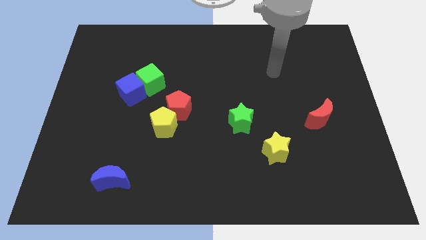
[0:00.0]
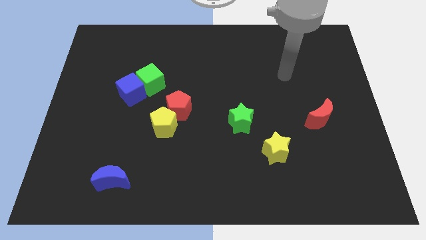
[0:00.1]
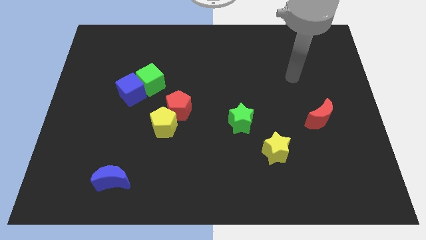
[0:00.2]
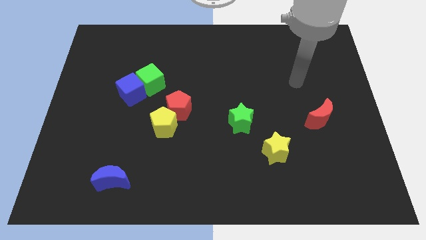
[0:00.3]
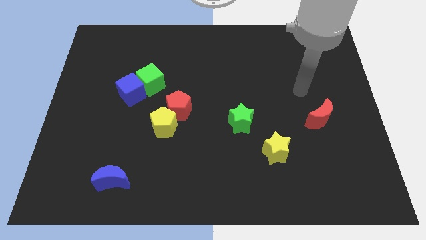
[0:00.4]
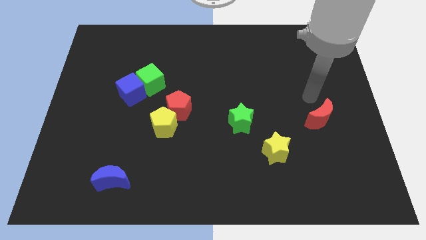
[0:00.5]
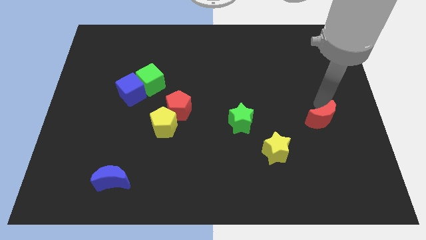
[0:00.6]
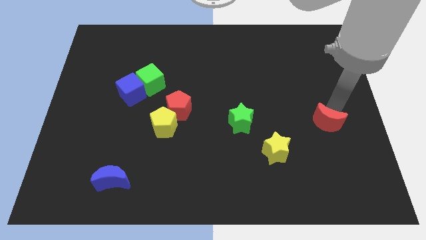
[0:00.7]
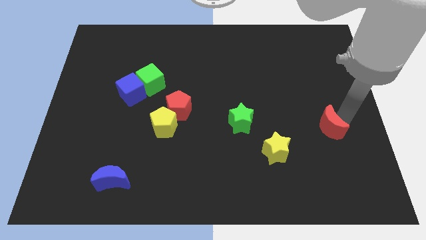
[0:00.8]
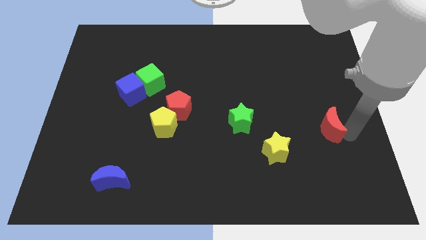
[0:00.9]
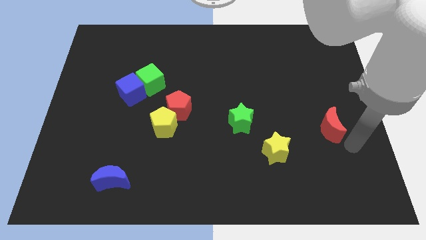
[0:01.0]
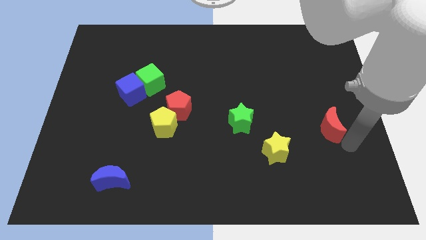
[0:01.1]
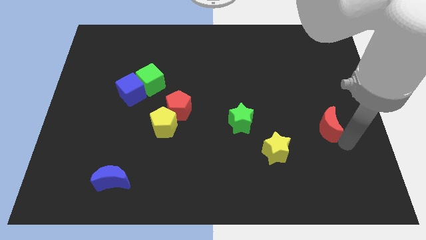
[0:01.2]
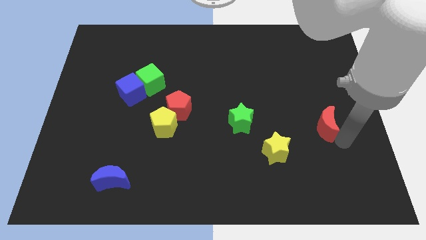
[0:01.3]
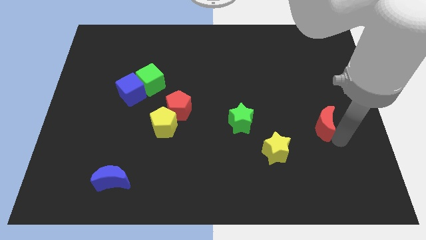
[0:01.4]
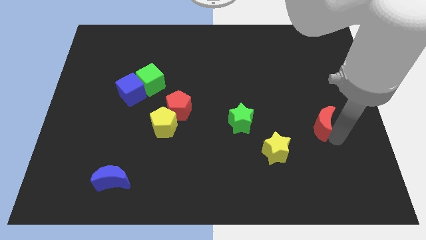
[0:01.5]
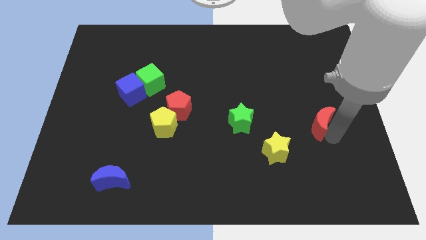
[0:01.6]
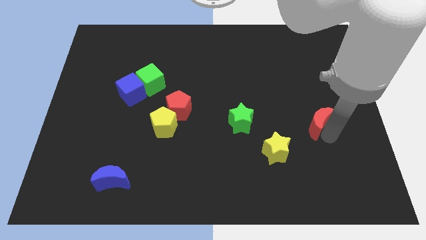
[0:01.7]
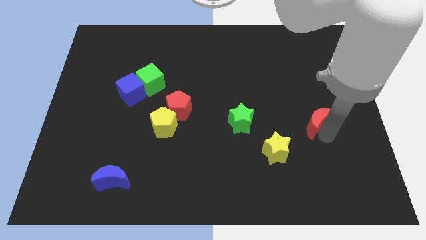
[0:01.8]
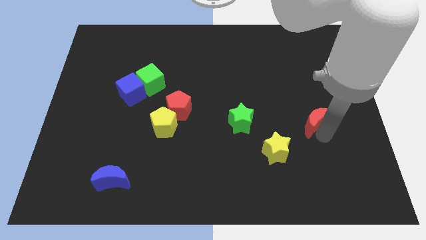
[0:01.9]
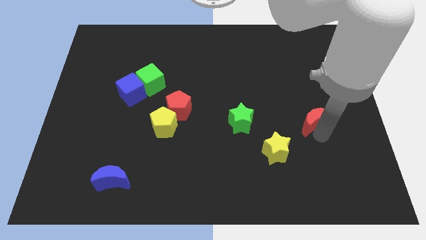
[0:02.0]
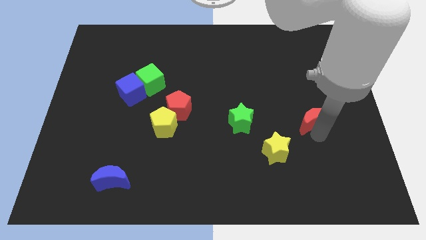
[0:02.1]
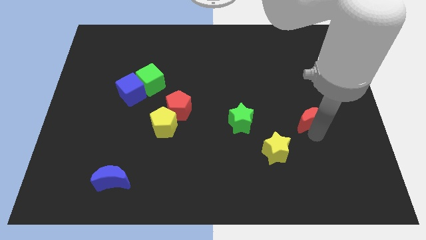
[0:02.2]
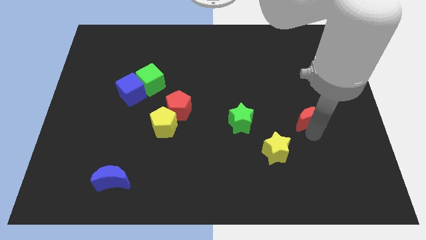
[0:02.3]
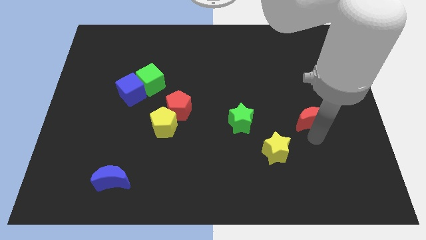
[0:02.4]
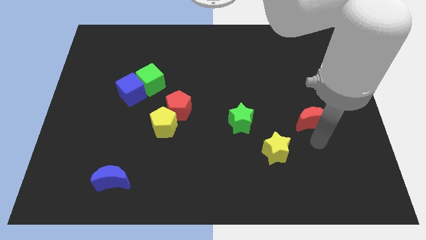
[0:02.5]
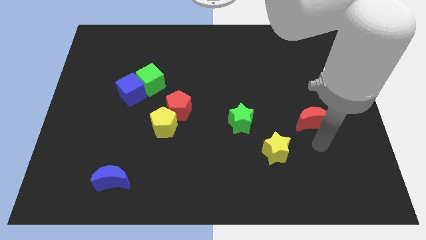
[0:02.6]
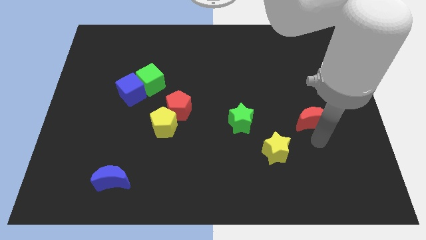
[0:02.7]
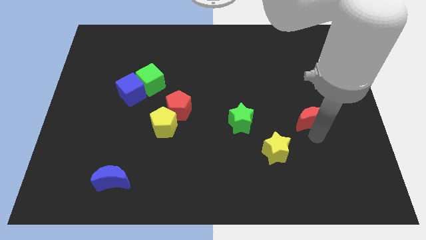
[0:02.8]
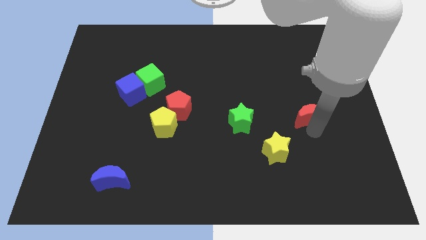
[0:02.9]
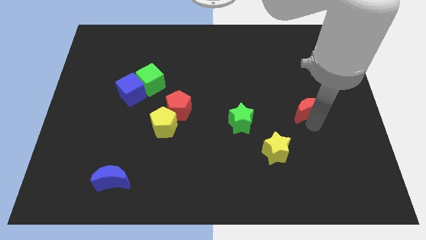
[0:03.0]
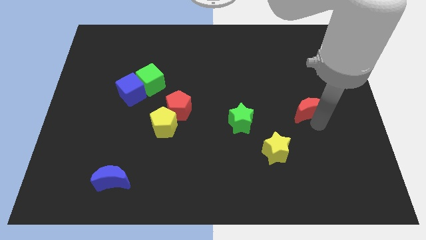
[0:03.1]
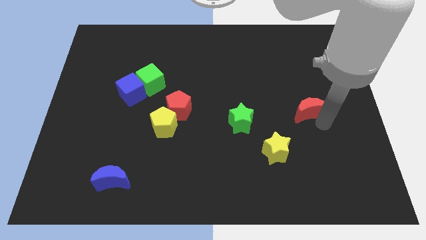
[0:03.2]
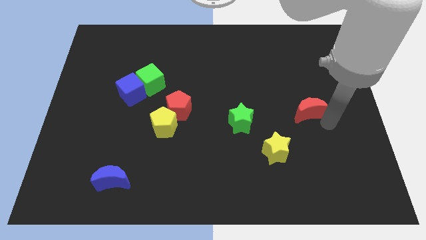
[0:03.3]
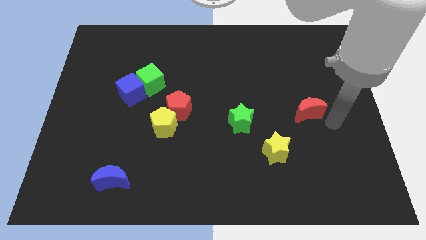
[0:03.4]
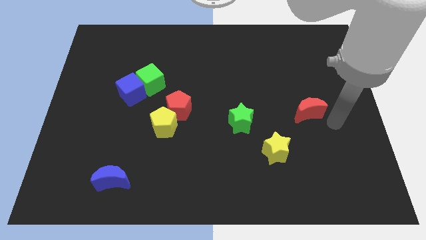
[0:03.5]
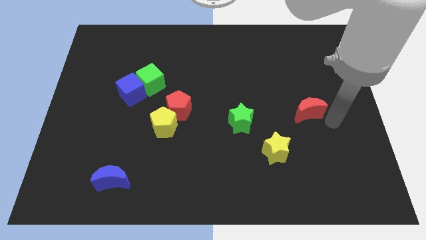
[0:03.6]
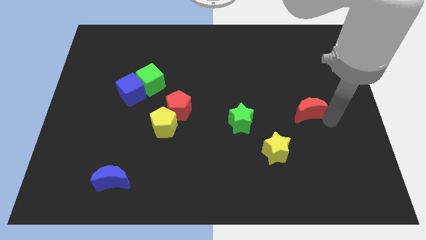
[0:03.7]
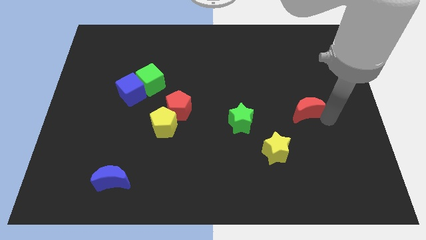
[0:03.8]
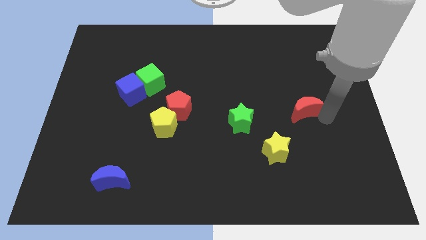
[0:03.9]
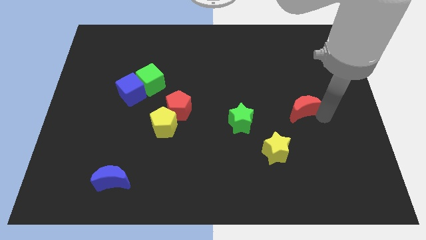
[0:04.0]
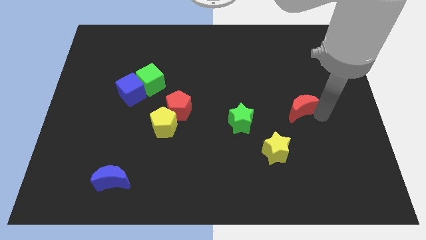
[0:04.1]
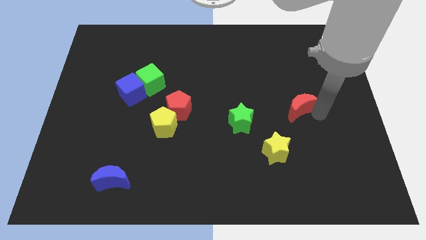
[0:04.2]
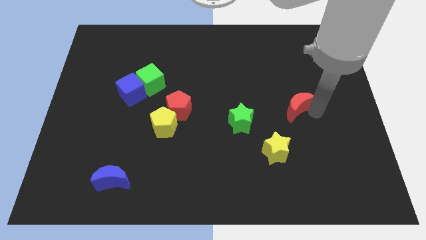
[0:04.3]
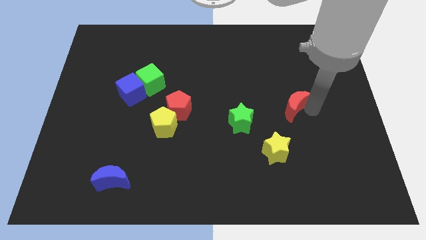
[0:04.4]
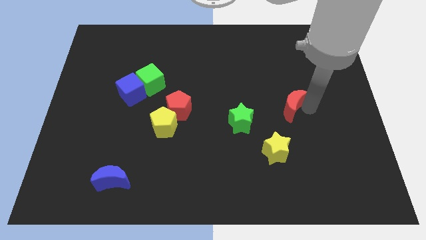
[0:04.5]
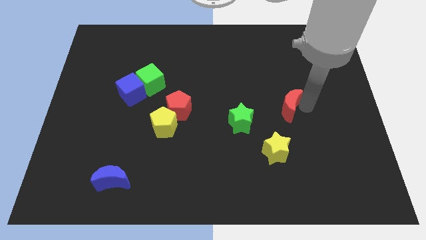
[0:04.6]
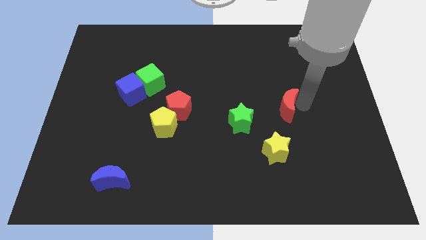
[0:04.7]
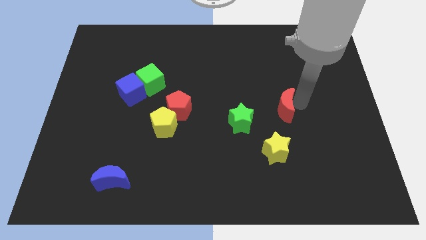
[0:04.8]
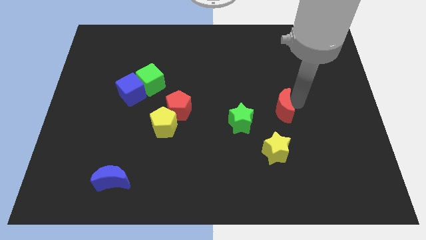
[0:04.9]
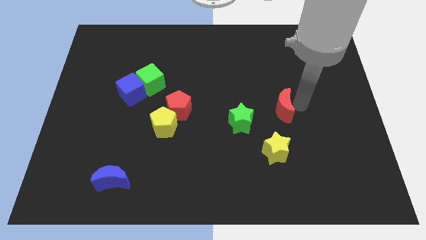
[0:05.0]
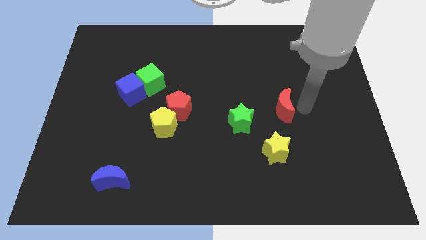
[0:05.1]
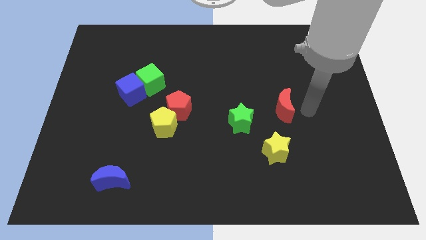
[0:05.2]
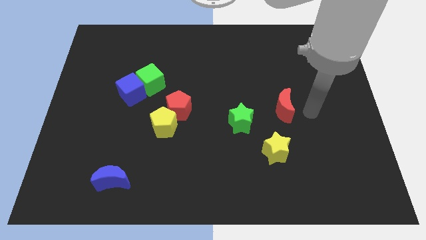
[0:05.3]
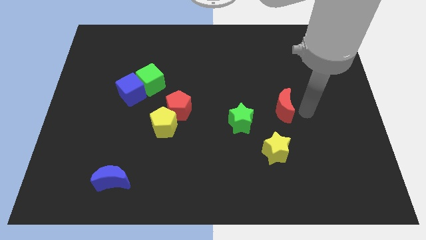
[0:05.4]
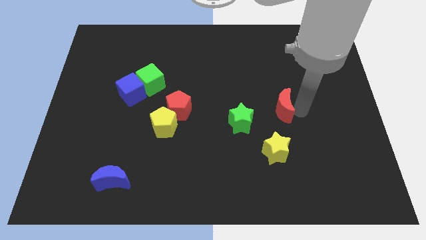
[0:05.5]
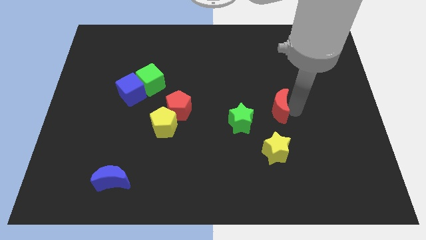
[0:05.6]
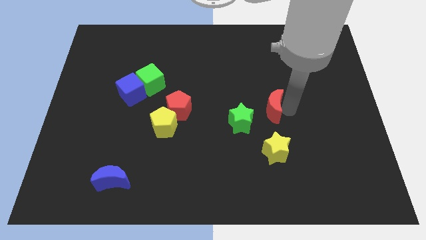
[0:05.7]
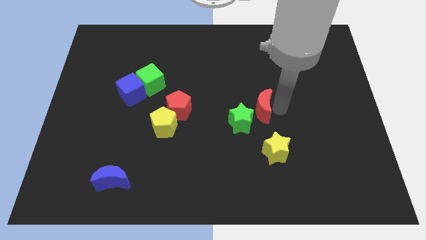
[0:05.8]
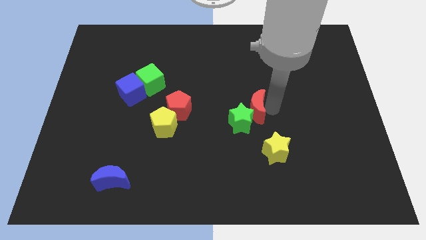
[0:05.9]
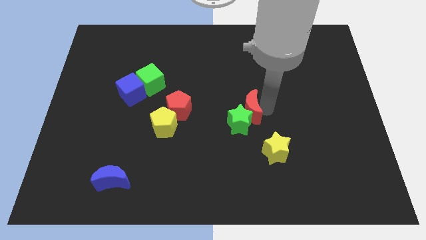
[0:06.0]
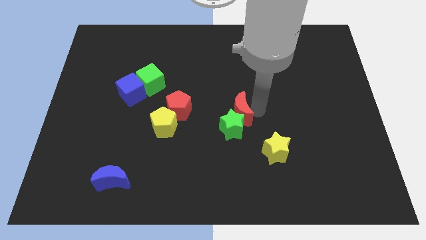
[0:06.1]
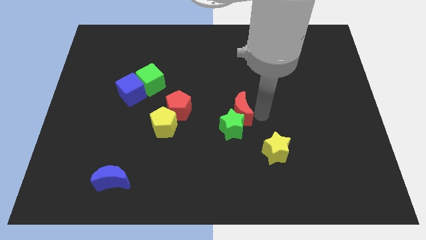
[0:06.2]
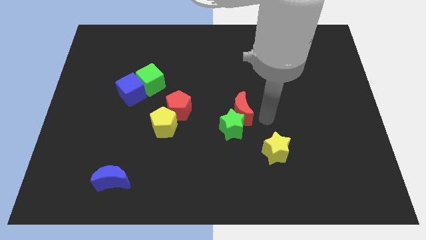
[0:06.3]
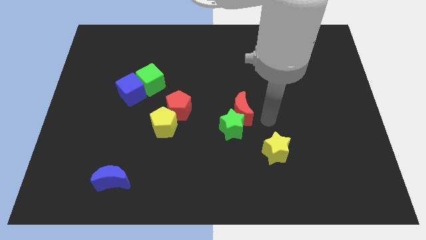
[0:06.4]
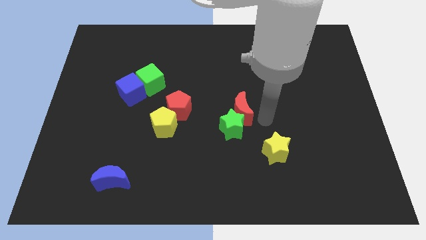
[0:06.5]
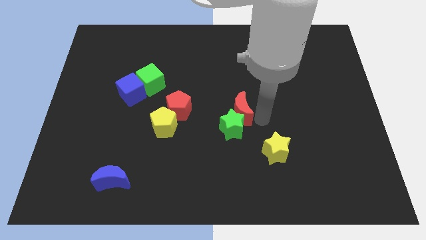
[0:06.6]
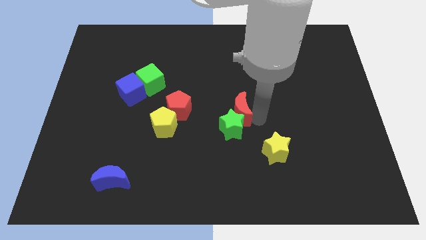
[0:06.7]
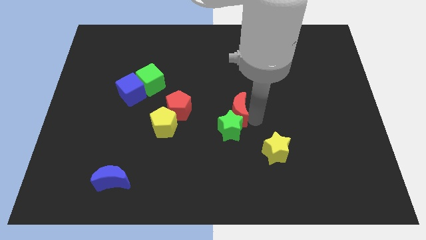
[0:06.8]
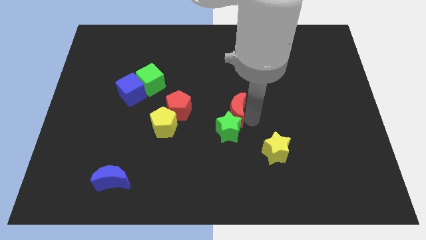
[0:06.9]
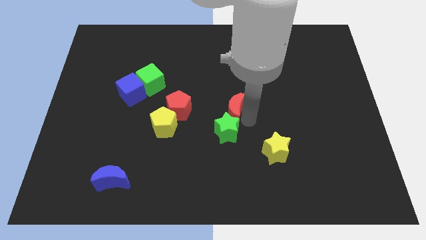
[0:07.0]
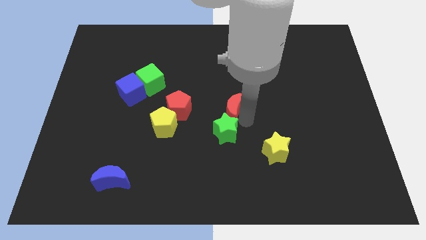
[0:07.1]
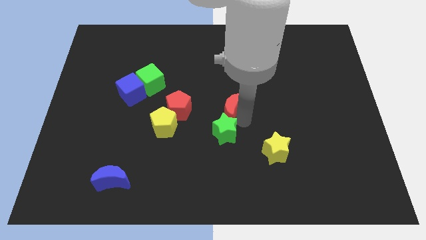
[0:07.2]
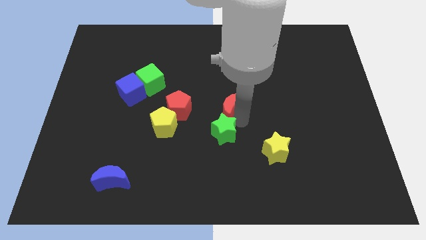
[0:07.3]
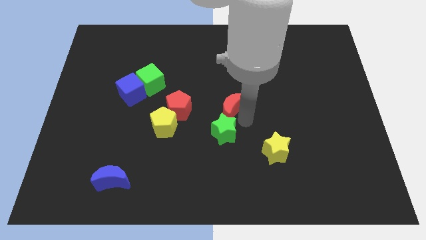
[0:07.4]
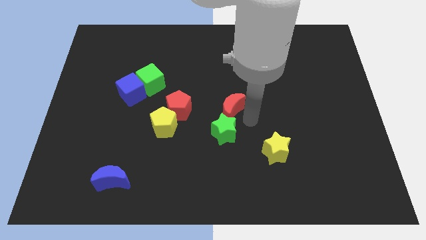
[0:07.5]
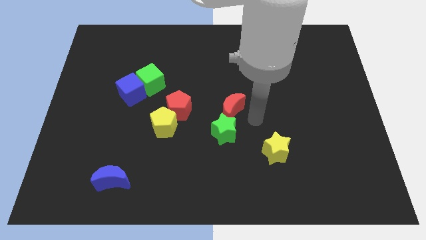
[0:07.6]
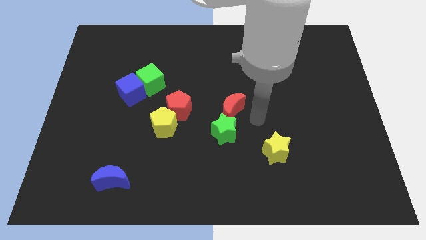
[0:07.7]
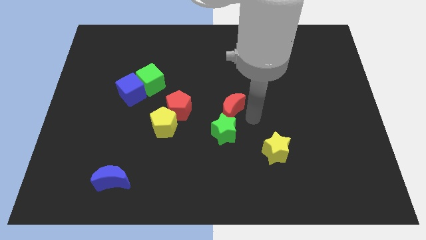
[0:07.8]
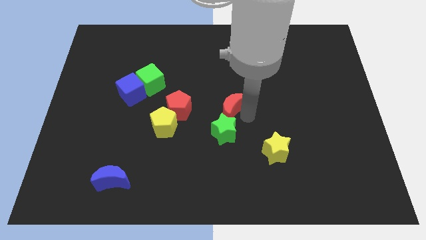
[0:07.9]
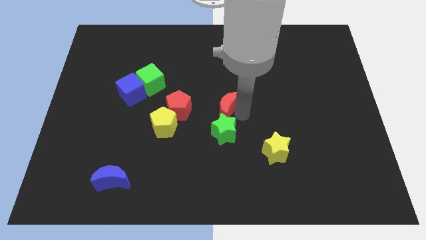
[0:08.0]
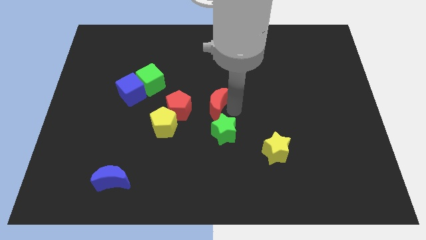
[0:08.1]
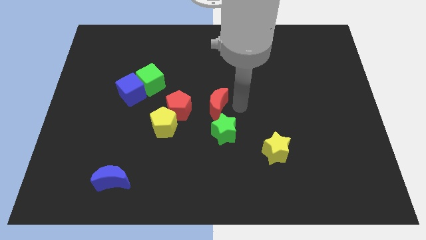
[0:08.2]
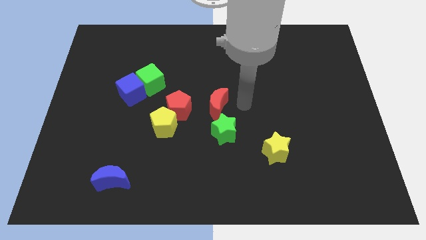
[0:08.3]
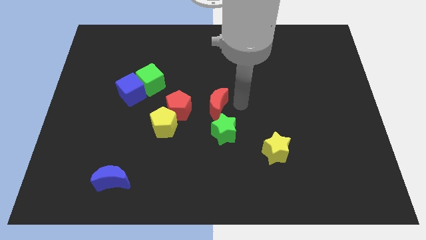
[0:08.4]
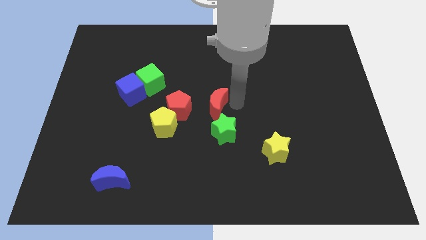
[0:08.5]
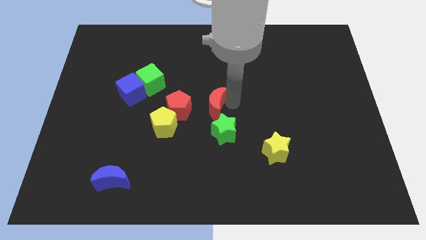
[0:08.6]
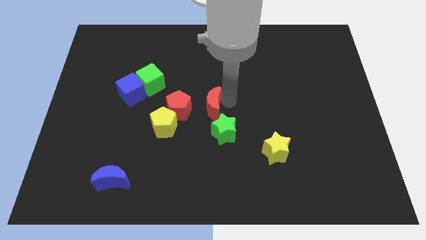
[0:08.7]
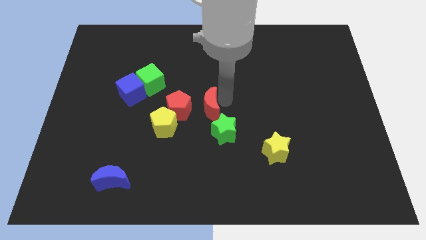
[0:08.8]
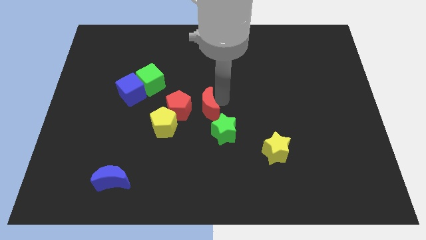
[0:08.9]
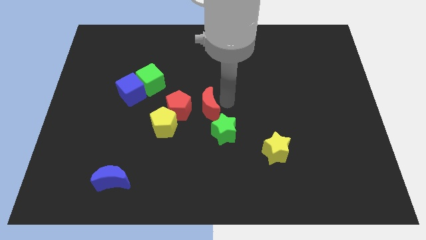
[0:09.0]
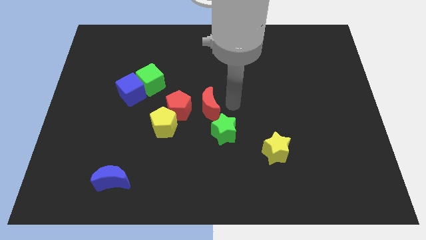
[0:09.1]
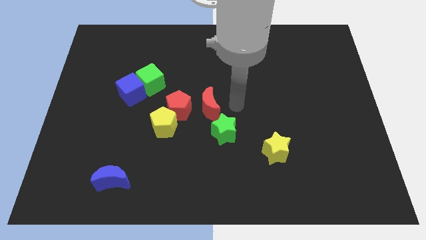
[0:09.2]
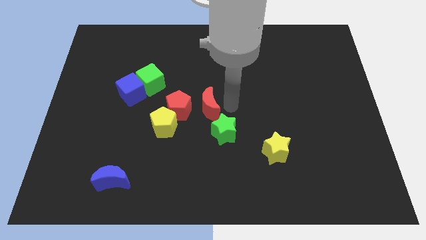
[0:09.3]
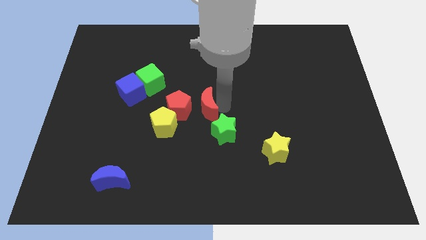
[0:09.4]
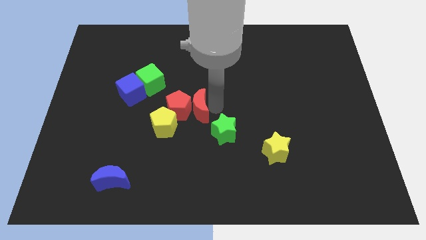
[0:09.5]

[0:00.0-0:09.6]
put the red moon to the red pentagon
